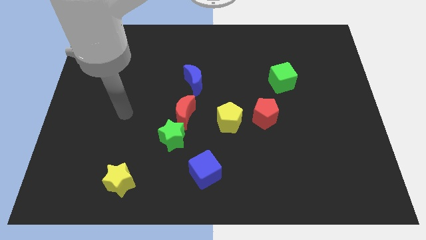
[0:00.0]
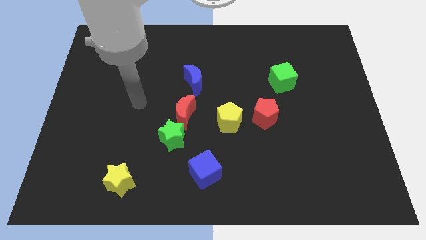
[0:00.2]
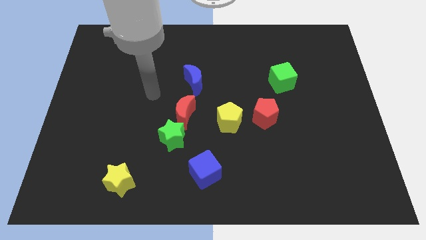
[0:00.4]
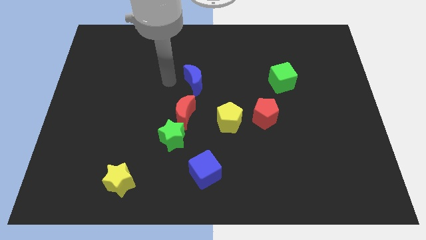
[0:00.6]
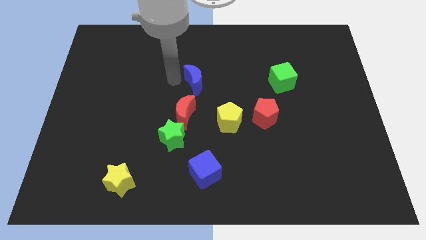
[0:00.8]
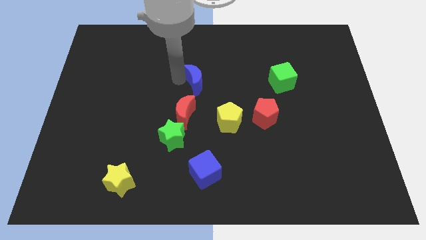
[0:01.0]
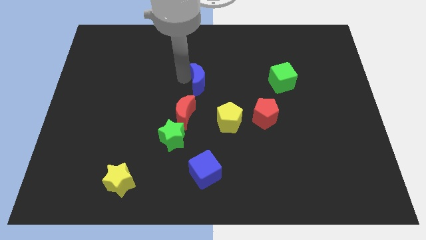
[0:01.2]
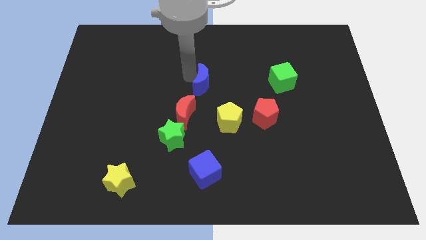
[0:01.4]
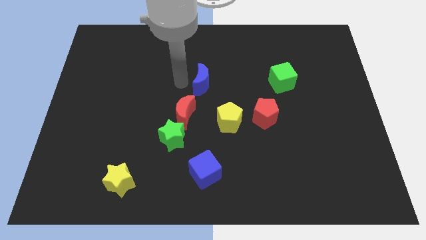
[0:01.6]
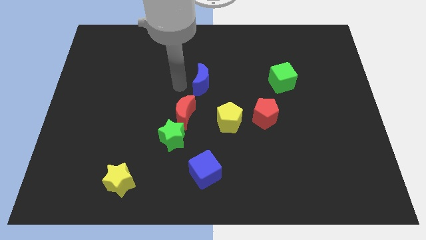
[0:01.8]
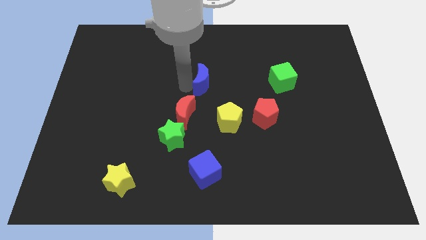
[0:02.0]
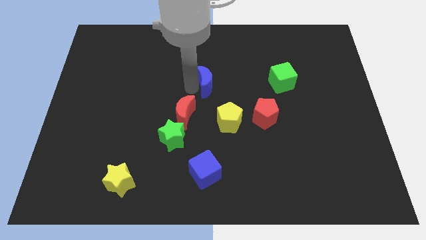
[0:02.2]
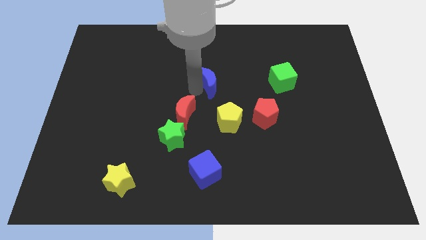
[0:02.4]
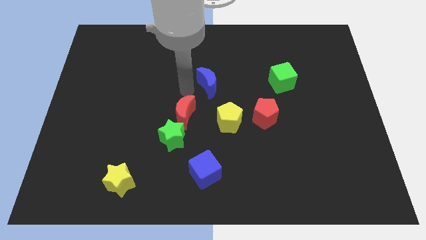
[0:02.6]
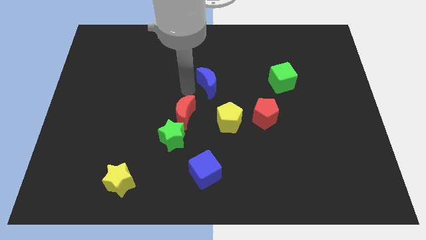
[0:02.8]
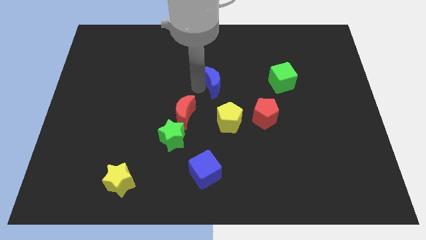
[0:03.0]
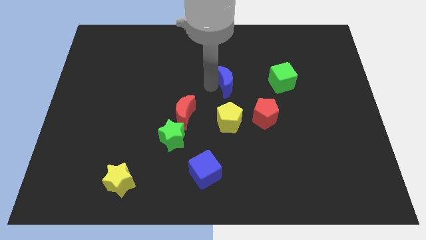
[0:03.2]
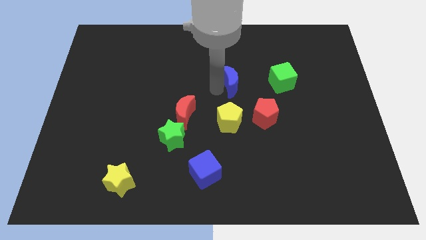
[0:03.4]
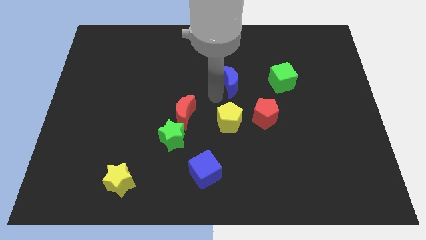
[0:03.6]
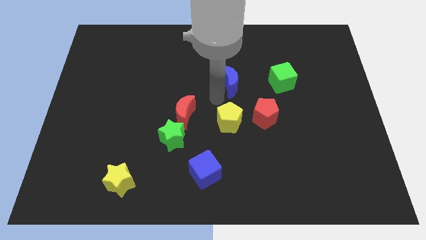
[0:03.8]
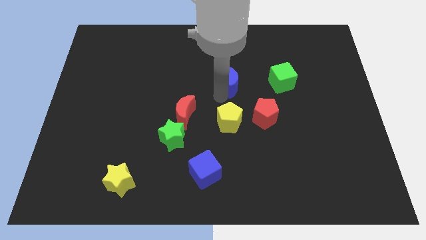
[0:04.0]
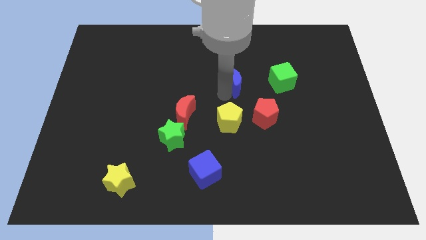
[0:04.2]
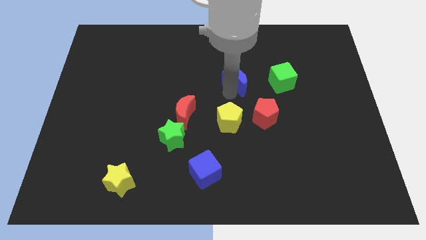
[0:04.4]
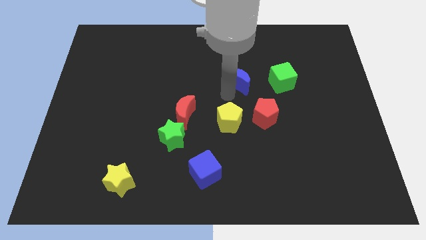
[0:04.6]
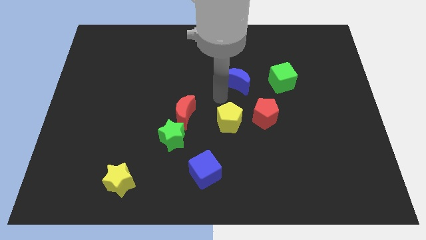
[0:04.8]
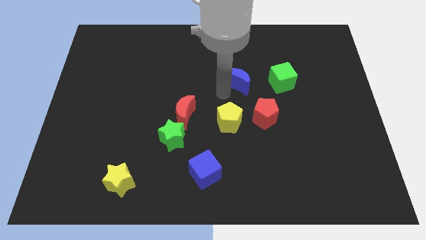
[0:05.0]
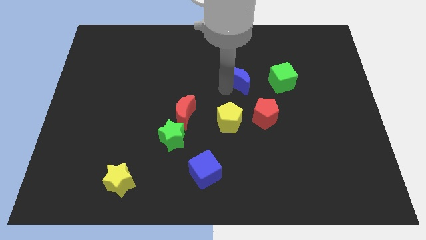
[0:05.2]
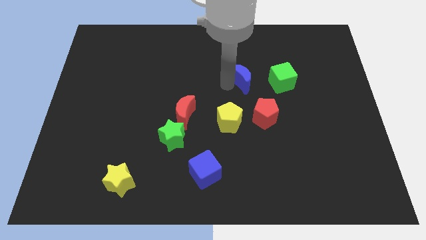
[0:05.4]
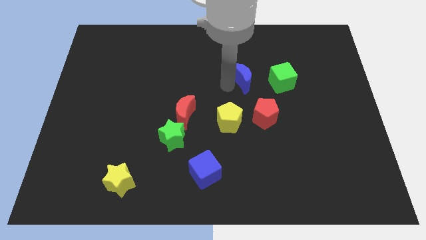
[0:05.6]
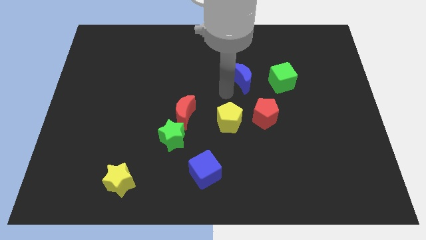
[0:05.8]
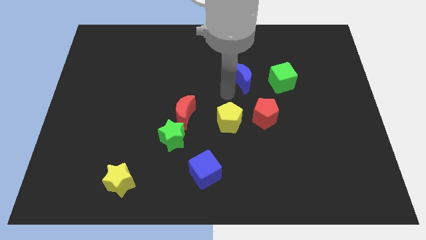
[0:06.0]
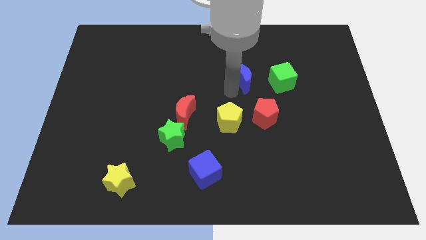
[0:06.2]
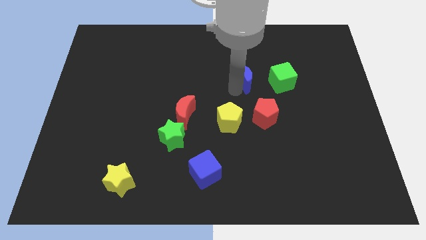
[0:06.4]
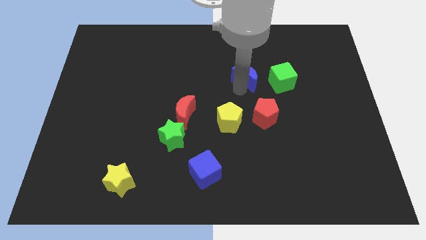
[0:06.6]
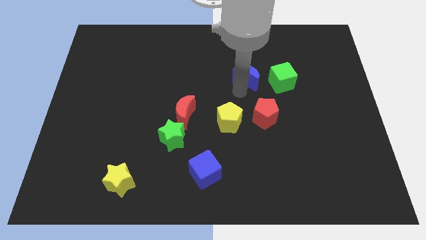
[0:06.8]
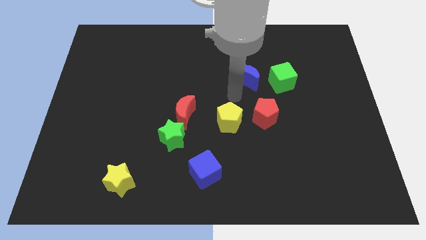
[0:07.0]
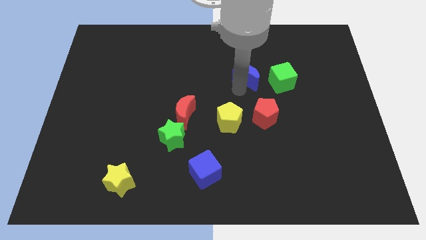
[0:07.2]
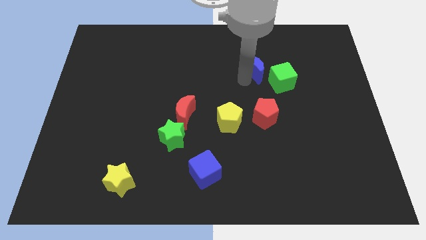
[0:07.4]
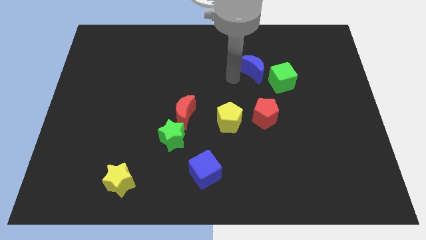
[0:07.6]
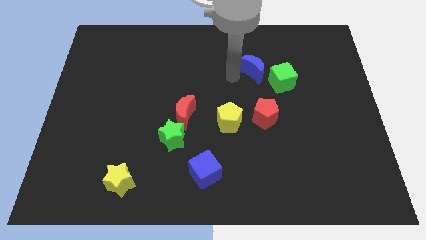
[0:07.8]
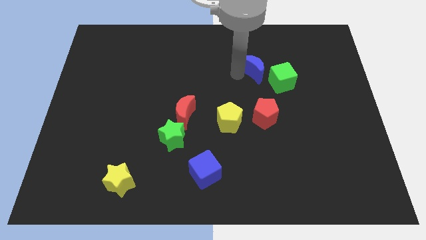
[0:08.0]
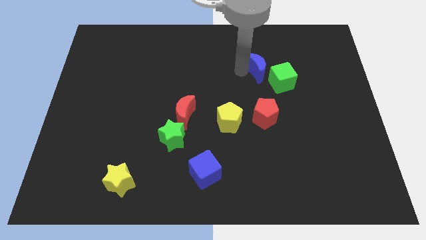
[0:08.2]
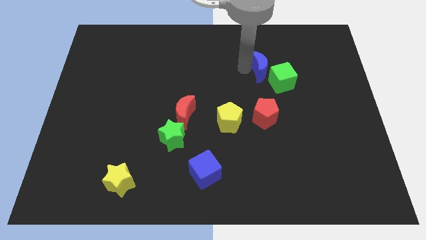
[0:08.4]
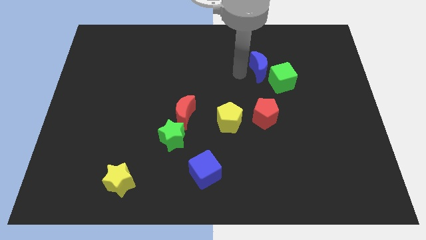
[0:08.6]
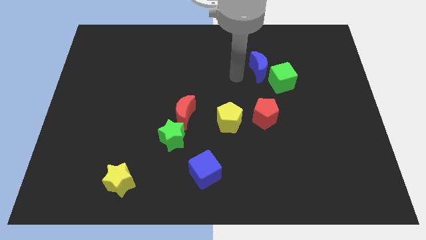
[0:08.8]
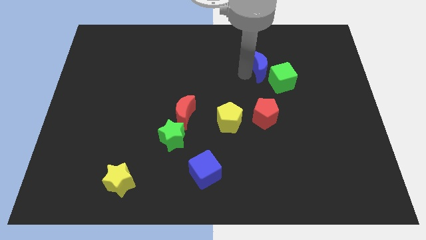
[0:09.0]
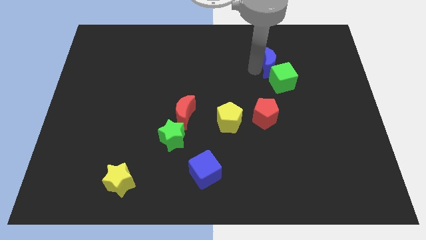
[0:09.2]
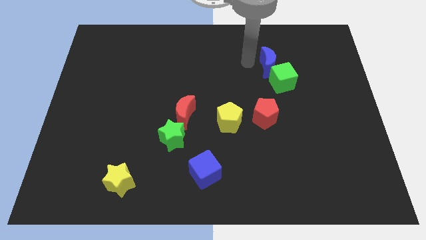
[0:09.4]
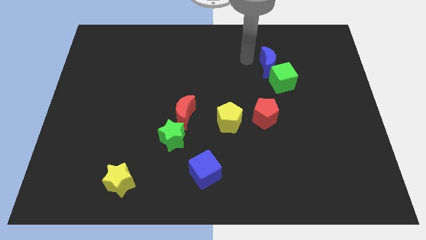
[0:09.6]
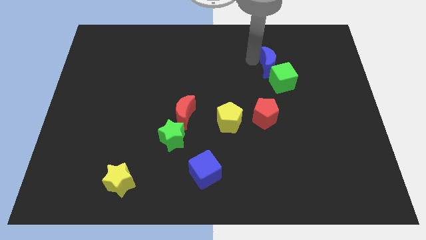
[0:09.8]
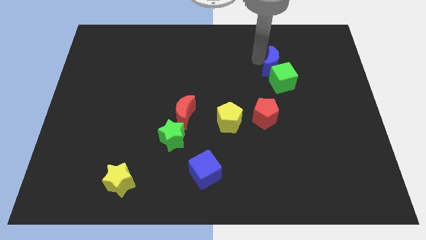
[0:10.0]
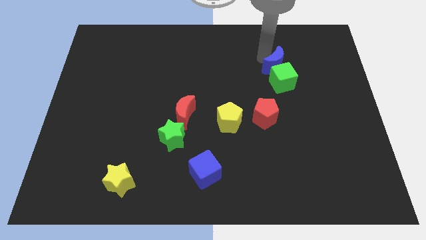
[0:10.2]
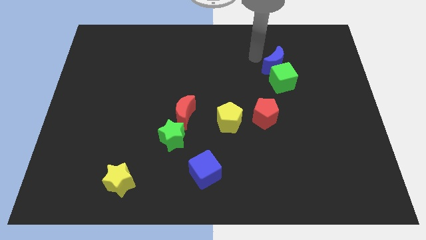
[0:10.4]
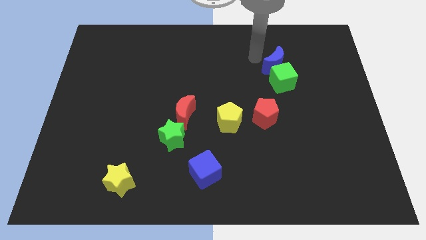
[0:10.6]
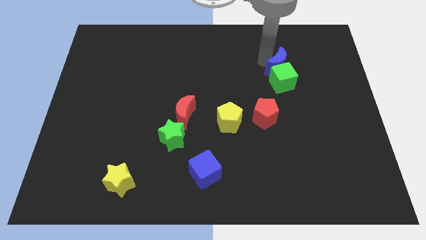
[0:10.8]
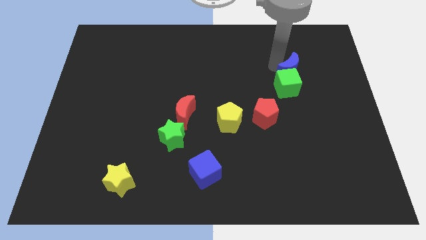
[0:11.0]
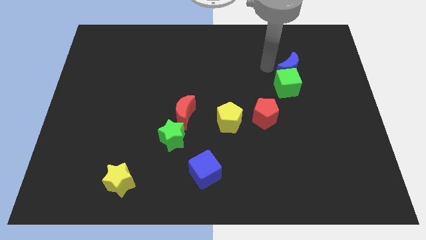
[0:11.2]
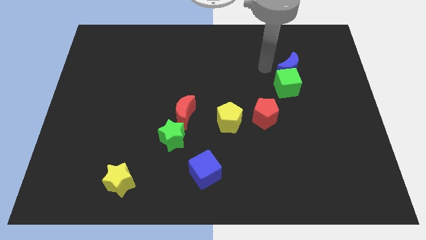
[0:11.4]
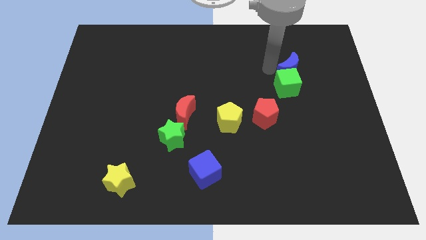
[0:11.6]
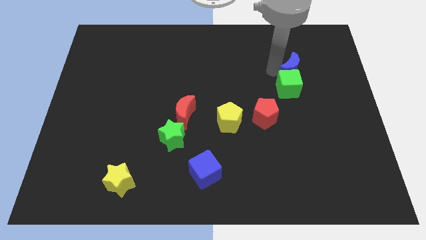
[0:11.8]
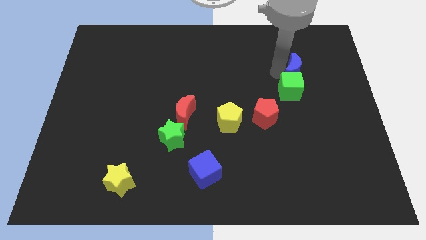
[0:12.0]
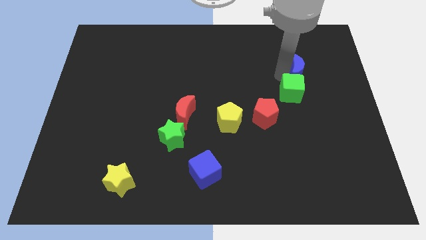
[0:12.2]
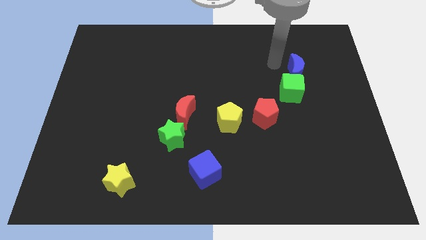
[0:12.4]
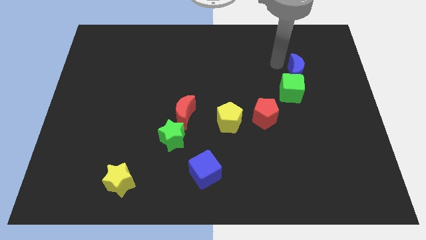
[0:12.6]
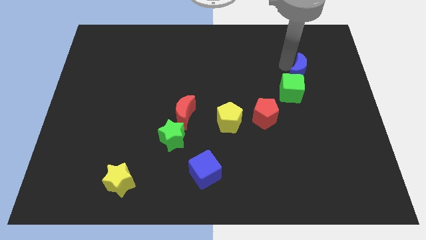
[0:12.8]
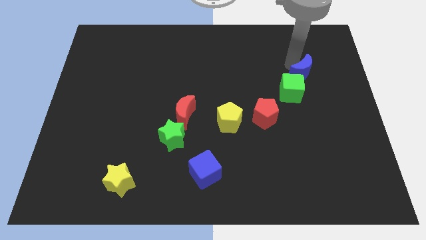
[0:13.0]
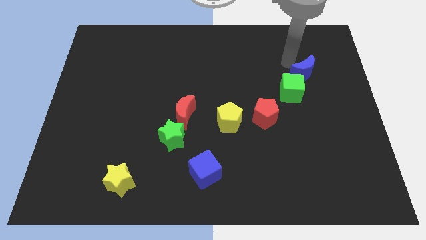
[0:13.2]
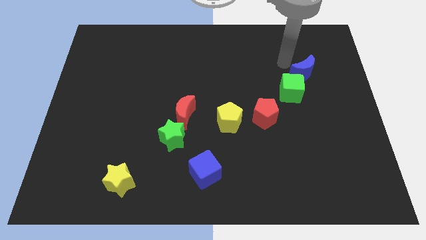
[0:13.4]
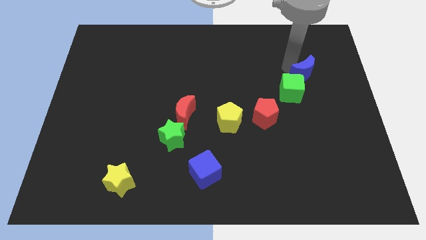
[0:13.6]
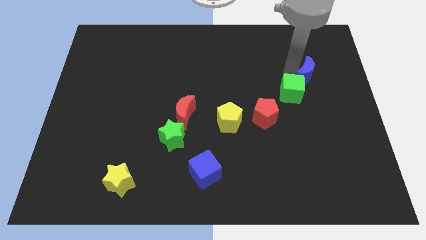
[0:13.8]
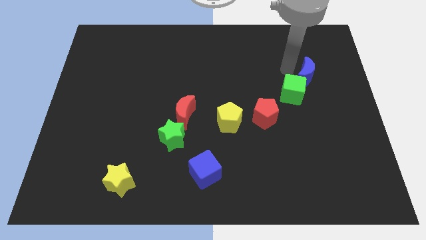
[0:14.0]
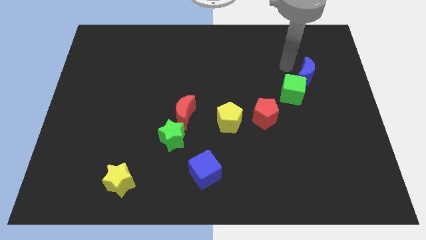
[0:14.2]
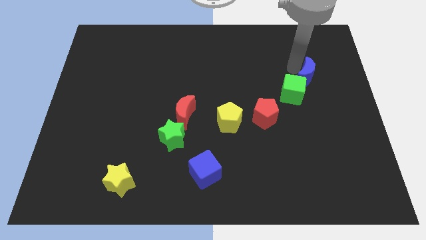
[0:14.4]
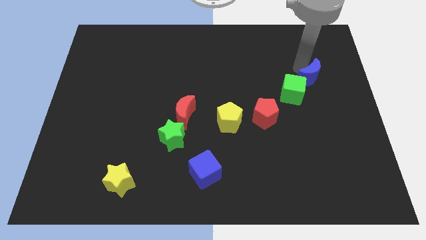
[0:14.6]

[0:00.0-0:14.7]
put the blue moon to the right side of the green cube
